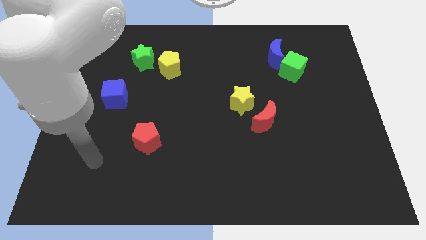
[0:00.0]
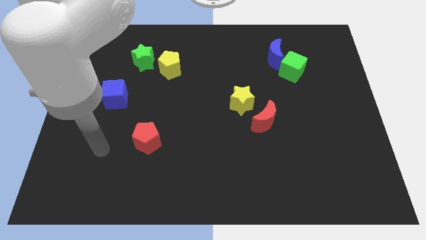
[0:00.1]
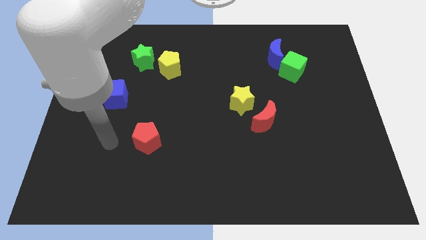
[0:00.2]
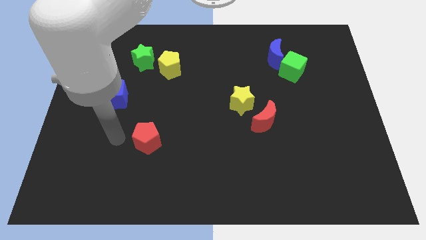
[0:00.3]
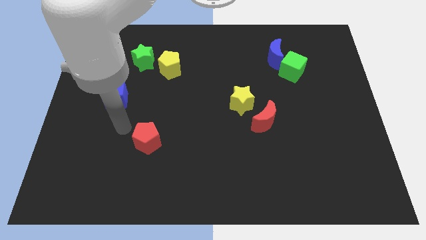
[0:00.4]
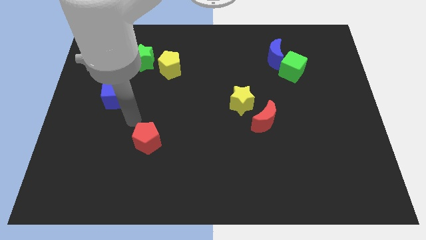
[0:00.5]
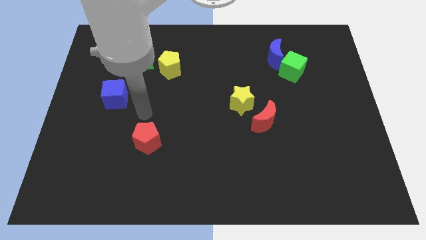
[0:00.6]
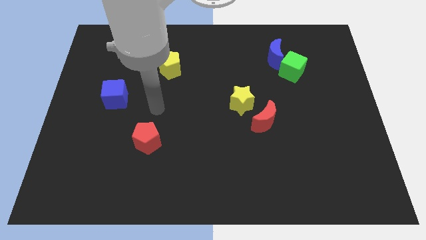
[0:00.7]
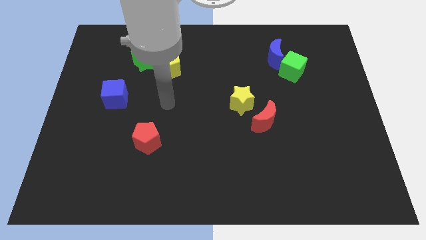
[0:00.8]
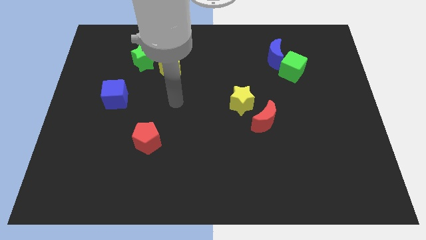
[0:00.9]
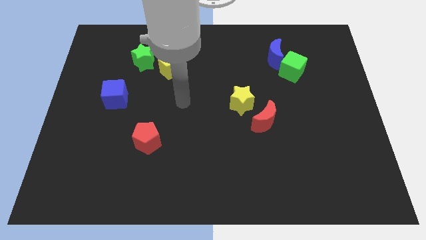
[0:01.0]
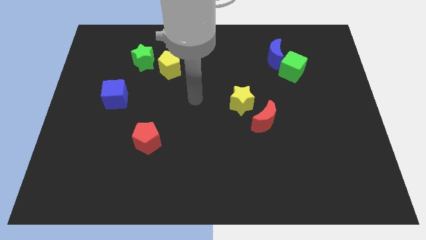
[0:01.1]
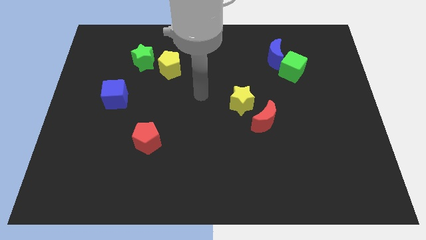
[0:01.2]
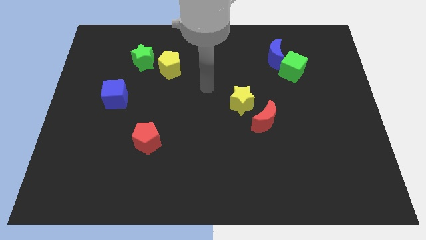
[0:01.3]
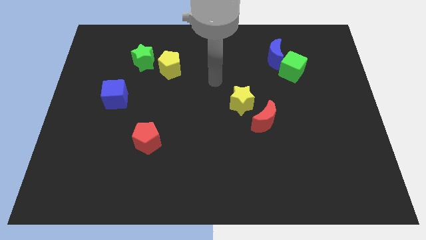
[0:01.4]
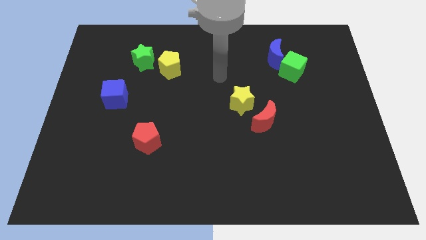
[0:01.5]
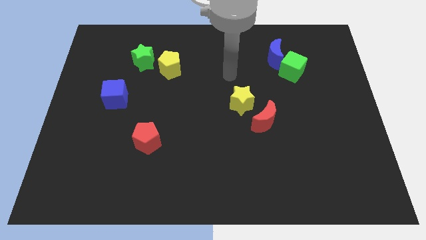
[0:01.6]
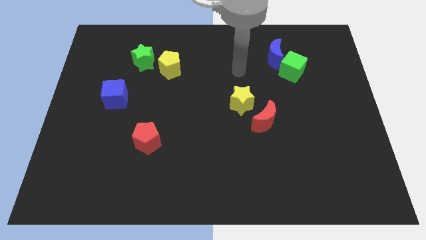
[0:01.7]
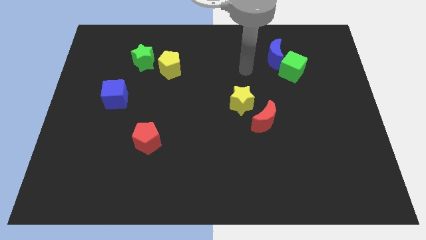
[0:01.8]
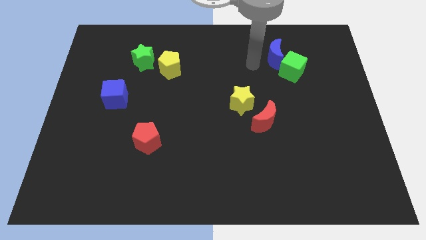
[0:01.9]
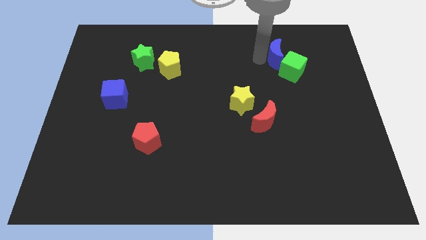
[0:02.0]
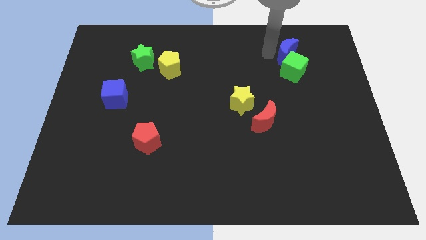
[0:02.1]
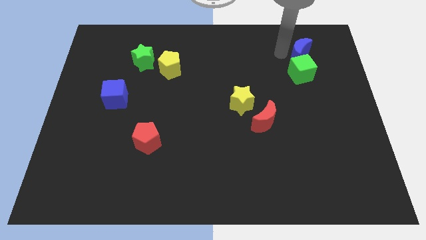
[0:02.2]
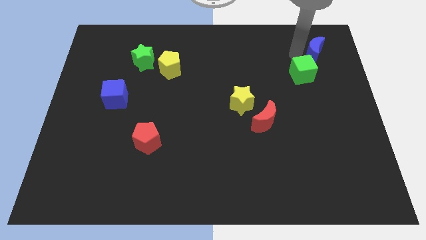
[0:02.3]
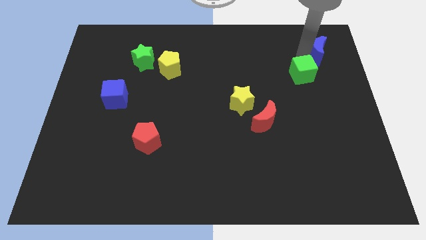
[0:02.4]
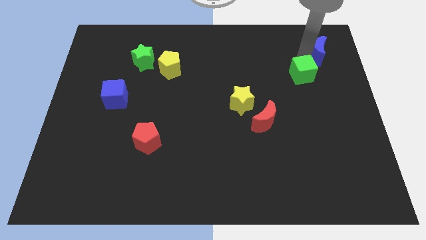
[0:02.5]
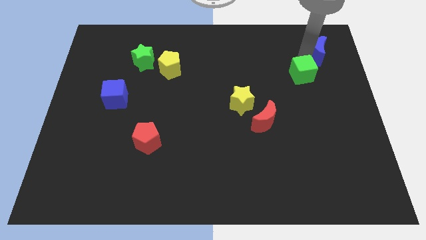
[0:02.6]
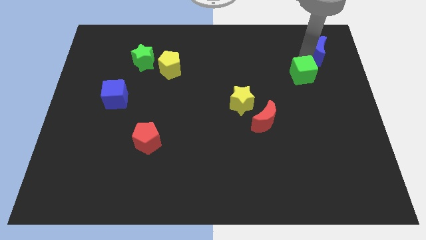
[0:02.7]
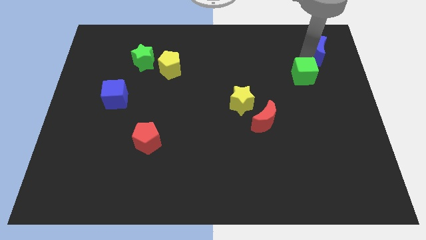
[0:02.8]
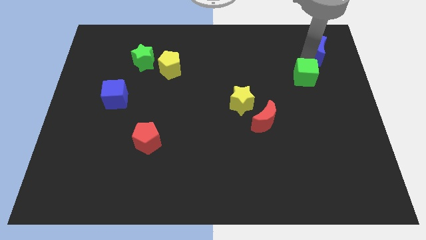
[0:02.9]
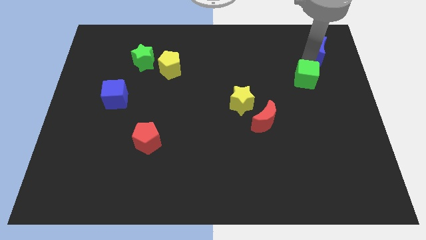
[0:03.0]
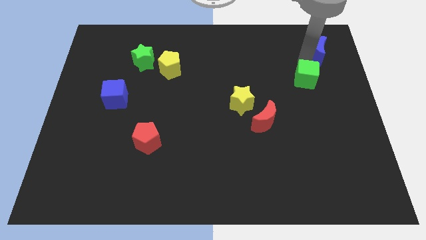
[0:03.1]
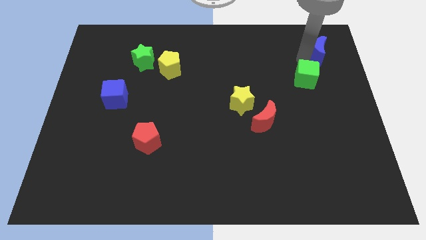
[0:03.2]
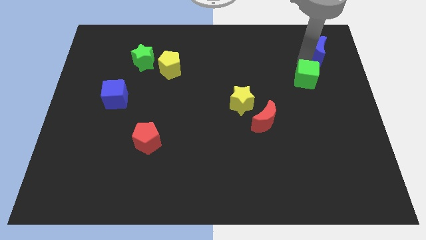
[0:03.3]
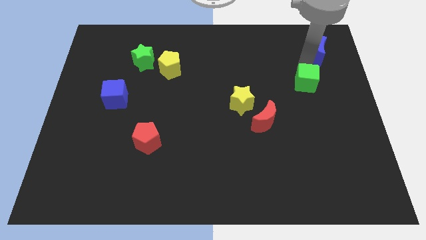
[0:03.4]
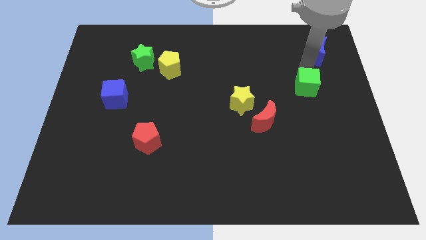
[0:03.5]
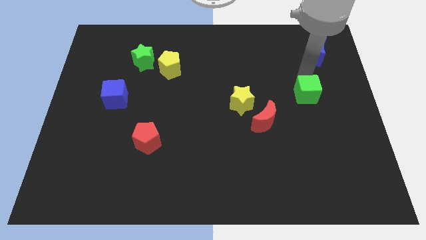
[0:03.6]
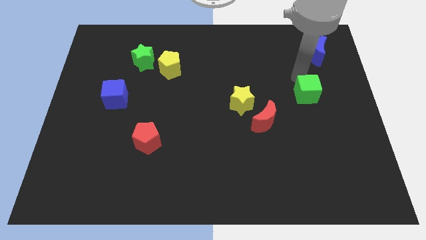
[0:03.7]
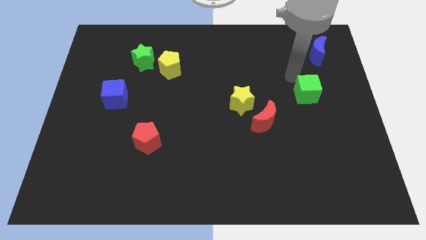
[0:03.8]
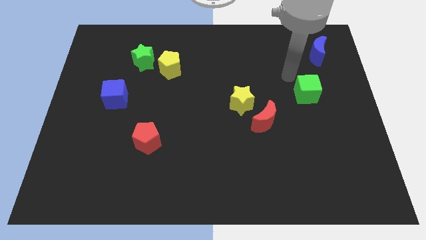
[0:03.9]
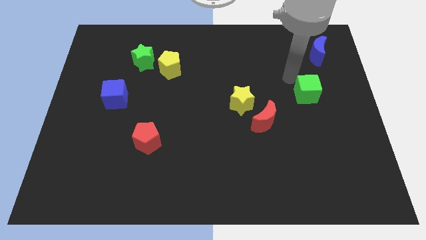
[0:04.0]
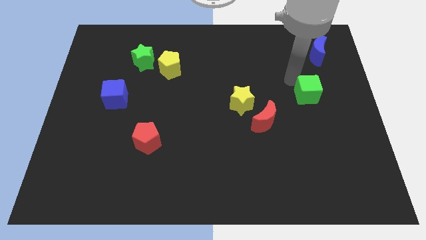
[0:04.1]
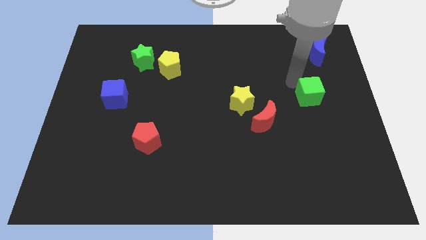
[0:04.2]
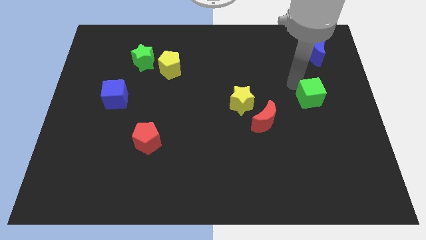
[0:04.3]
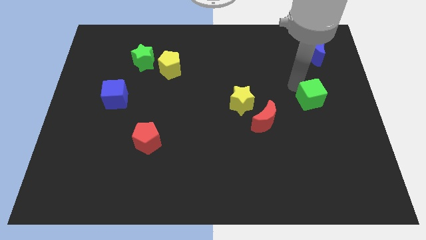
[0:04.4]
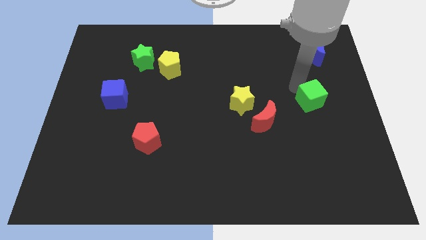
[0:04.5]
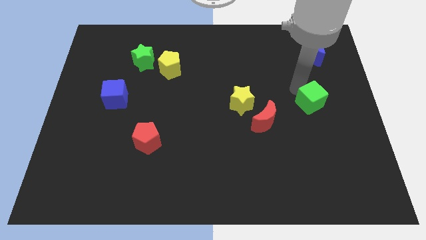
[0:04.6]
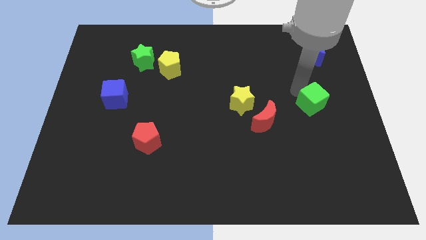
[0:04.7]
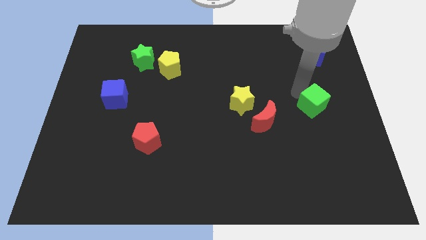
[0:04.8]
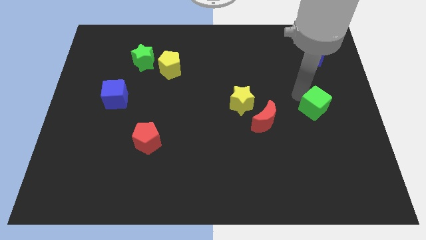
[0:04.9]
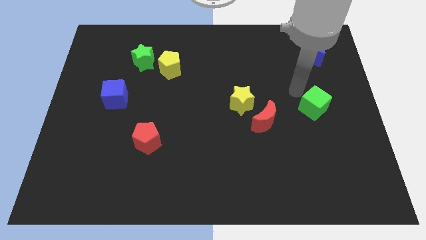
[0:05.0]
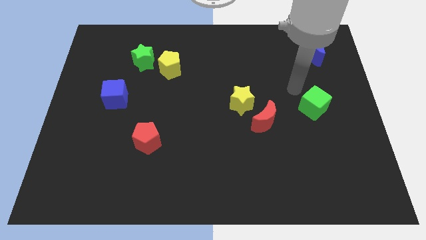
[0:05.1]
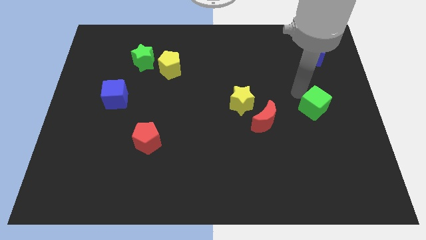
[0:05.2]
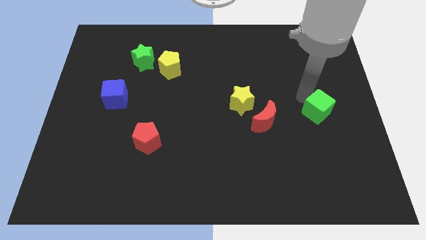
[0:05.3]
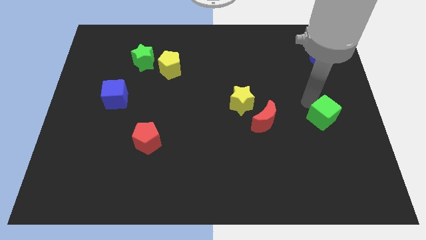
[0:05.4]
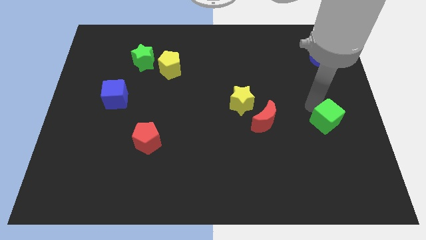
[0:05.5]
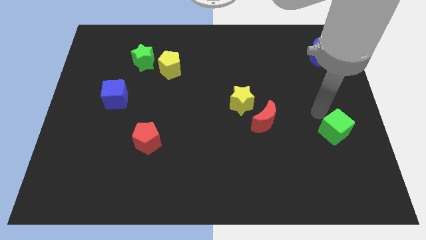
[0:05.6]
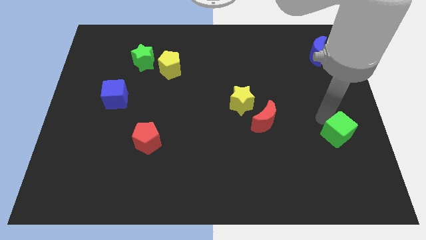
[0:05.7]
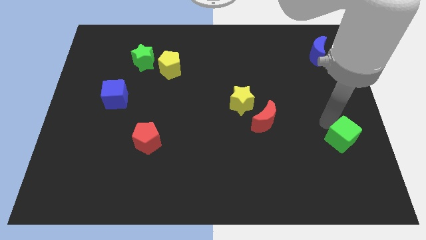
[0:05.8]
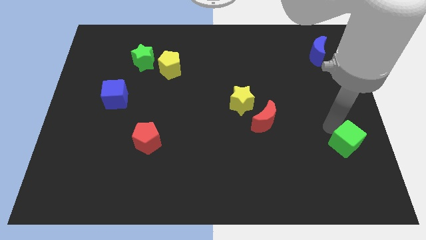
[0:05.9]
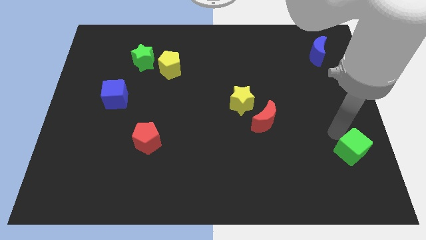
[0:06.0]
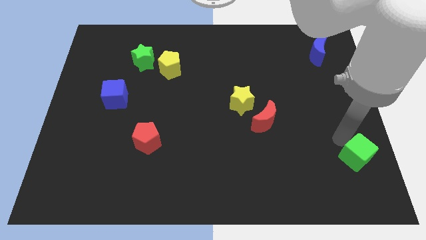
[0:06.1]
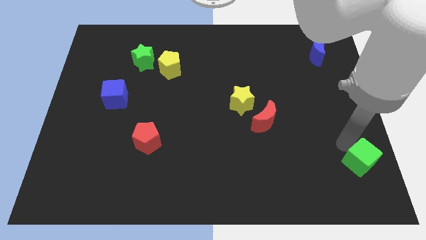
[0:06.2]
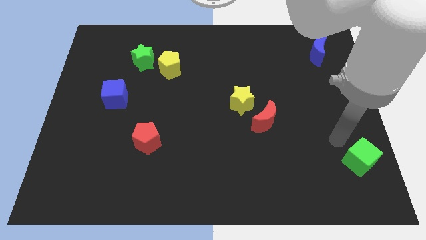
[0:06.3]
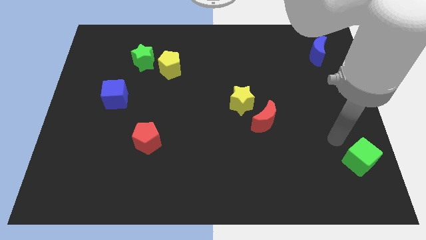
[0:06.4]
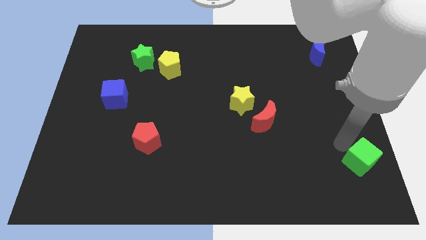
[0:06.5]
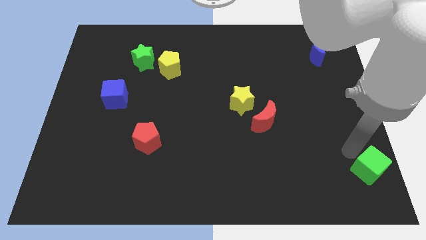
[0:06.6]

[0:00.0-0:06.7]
move the green cube to the lower right corner

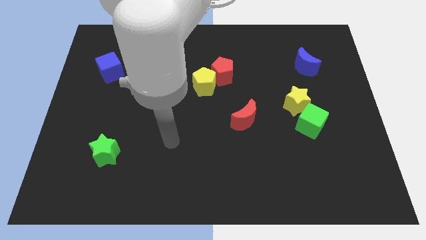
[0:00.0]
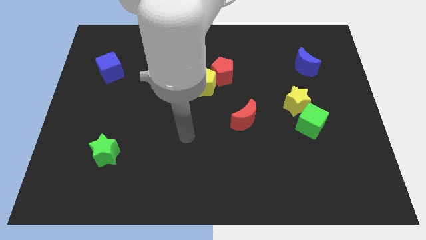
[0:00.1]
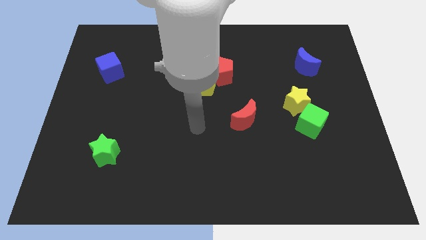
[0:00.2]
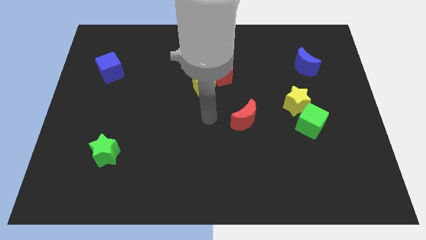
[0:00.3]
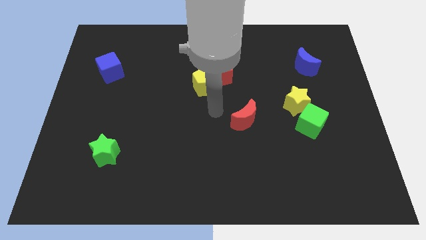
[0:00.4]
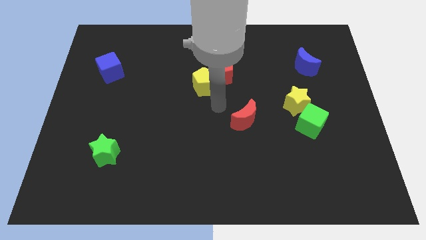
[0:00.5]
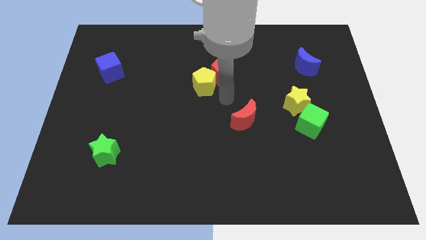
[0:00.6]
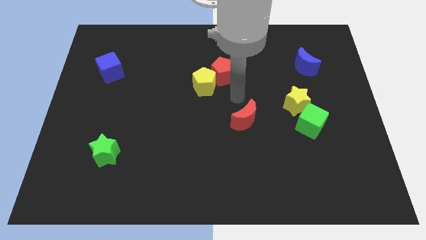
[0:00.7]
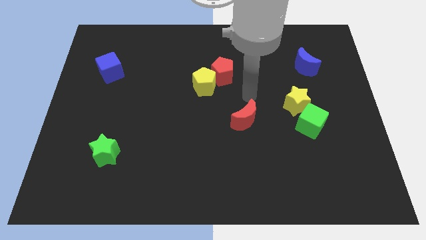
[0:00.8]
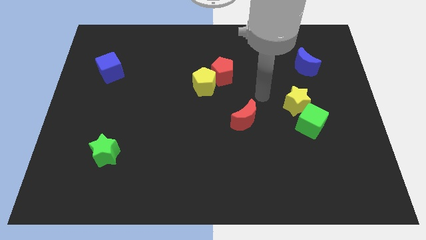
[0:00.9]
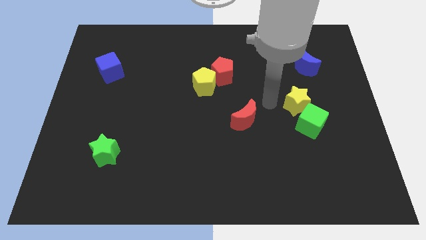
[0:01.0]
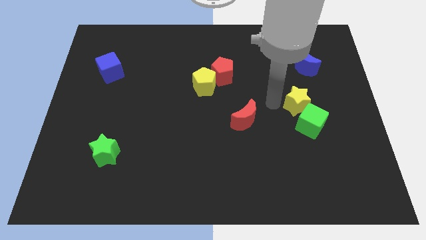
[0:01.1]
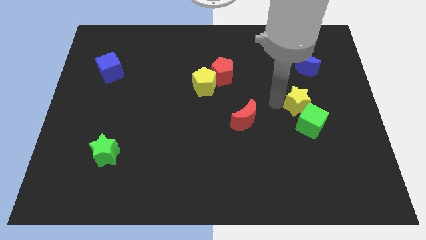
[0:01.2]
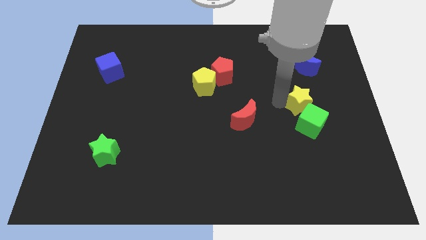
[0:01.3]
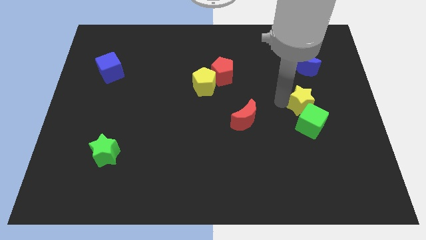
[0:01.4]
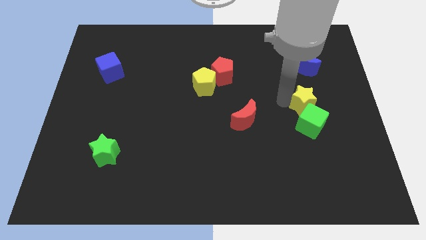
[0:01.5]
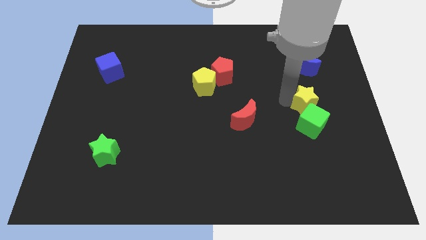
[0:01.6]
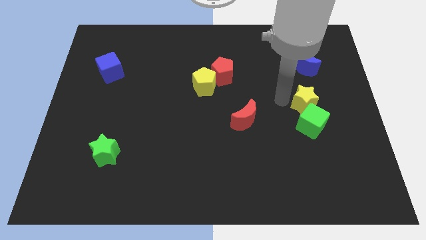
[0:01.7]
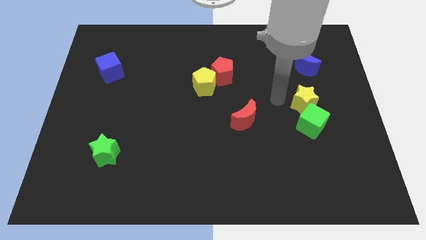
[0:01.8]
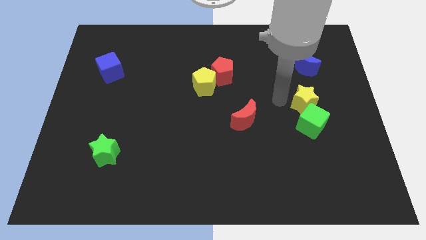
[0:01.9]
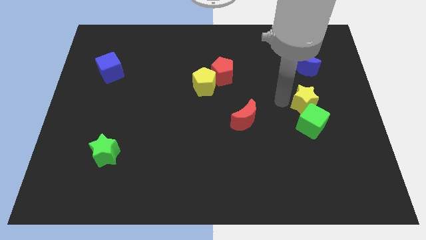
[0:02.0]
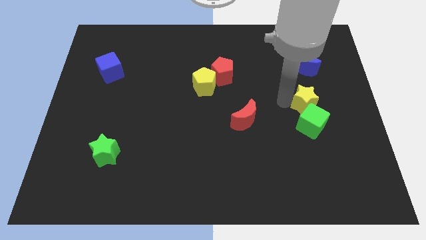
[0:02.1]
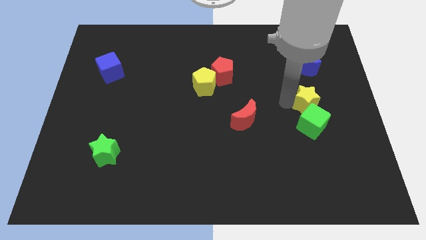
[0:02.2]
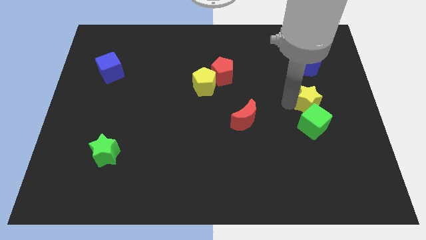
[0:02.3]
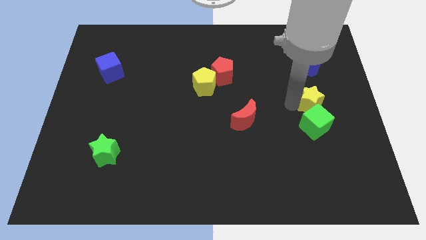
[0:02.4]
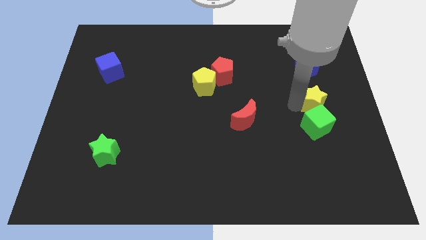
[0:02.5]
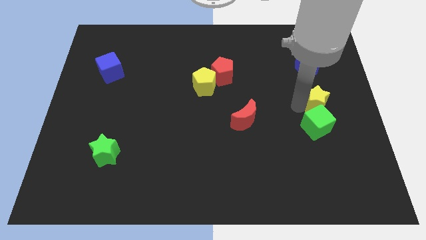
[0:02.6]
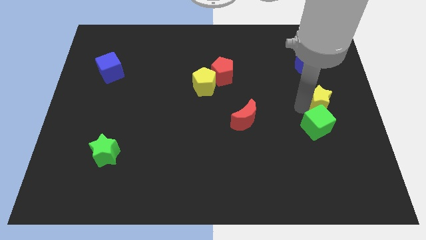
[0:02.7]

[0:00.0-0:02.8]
push the yellow star to the right side of the board
